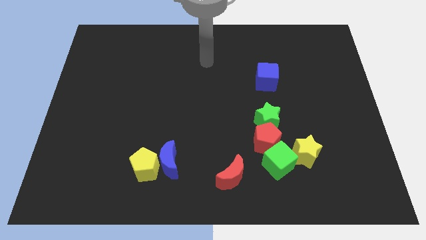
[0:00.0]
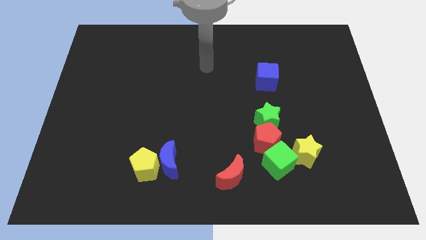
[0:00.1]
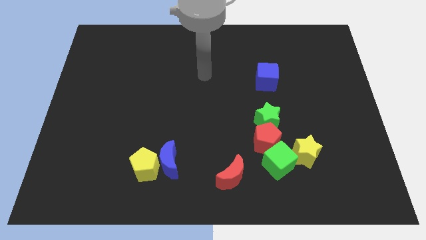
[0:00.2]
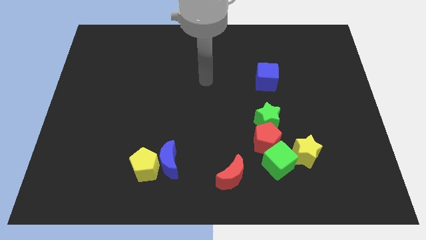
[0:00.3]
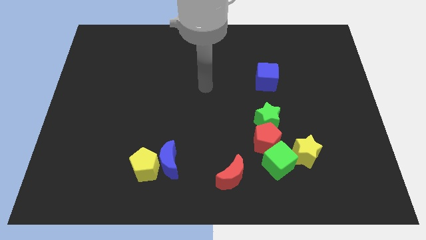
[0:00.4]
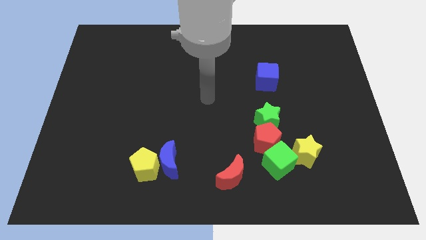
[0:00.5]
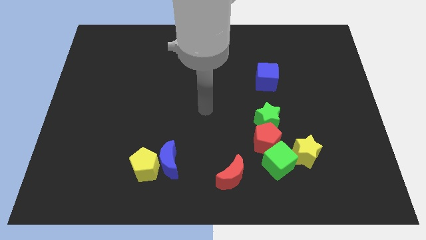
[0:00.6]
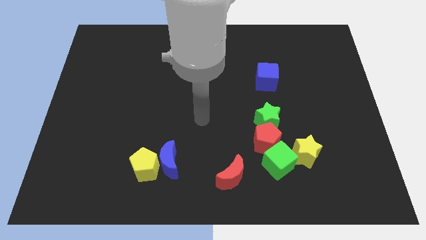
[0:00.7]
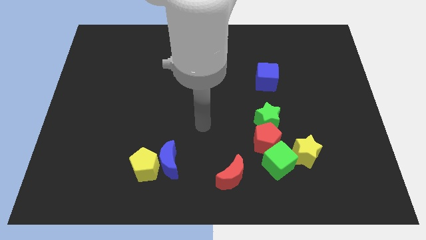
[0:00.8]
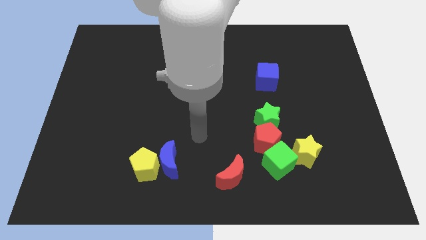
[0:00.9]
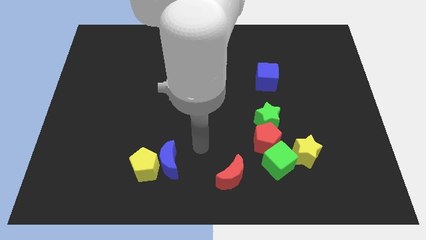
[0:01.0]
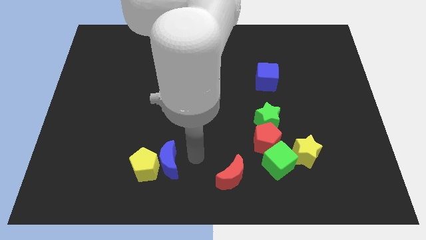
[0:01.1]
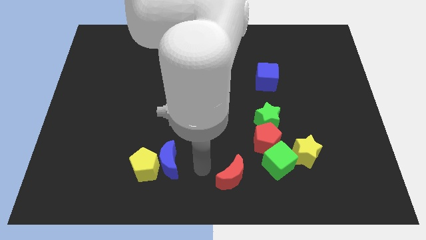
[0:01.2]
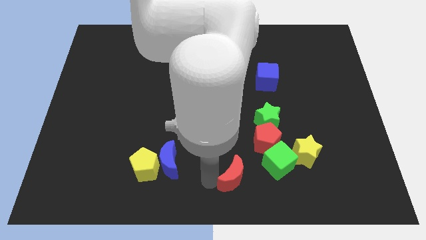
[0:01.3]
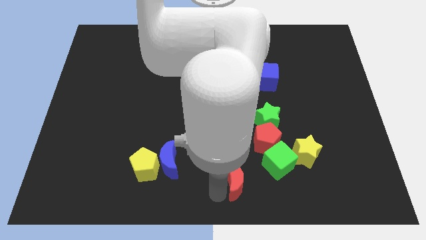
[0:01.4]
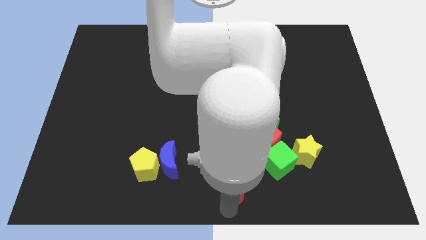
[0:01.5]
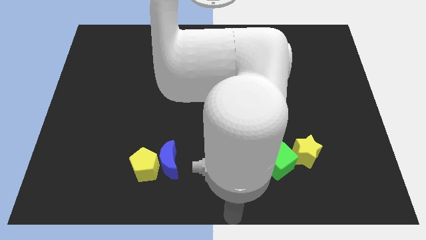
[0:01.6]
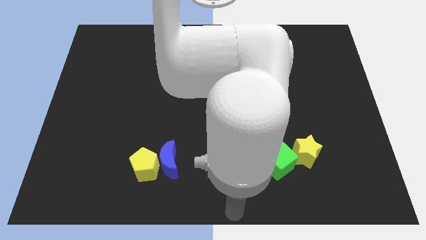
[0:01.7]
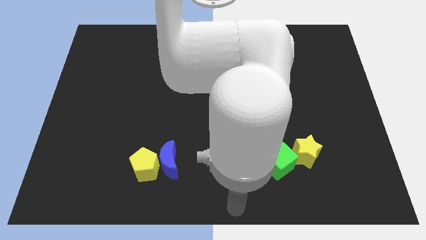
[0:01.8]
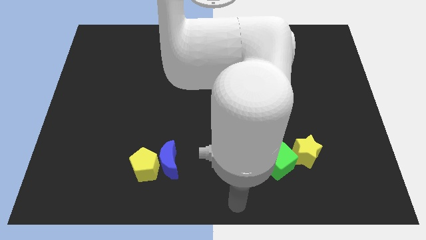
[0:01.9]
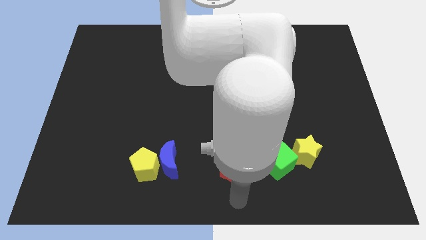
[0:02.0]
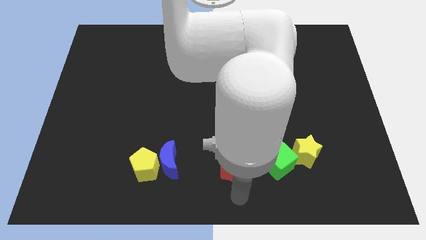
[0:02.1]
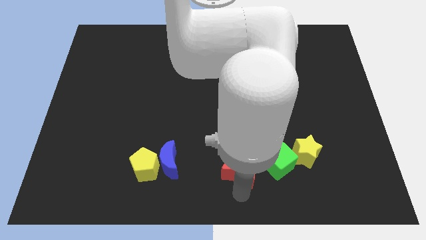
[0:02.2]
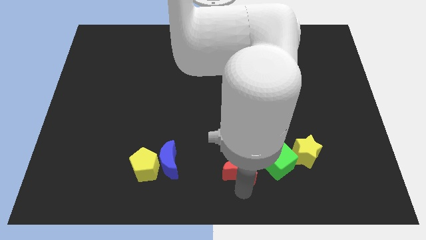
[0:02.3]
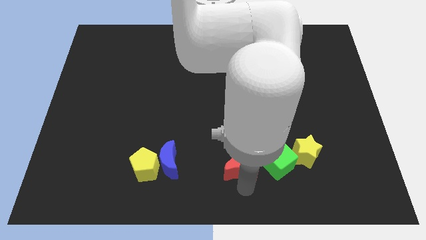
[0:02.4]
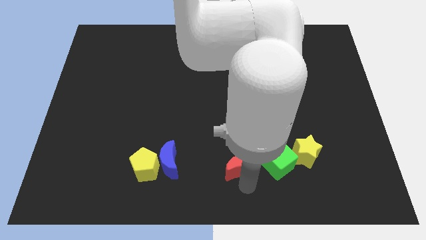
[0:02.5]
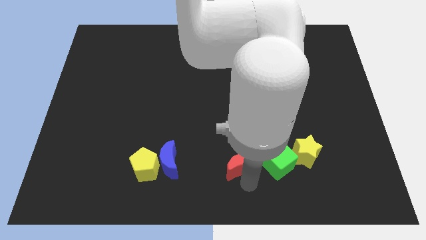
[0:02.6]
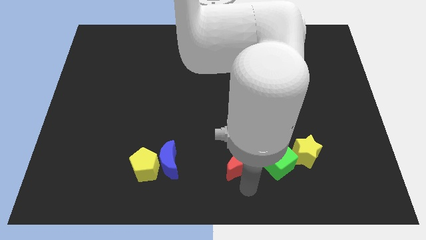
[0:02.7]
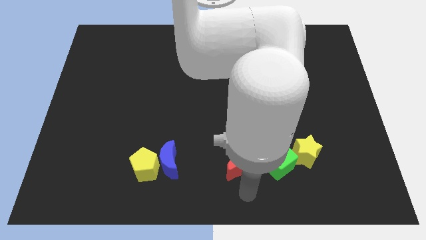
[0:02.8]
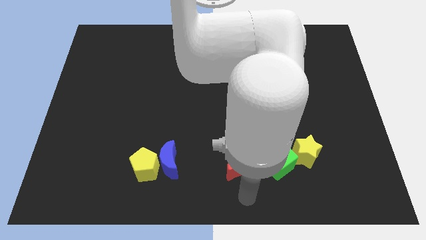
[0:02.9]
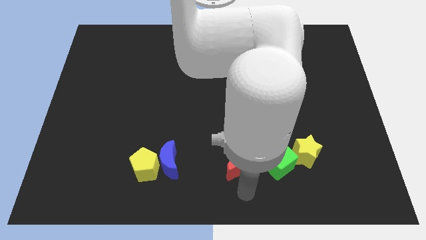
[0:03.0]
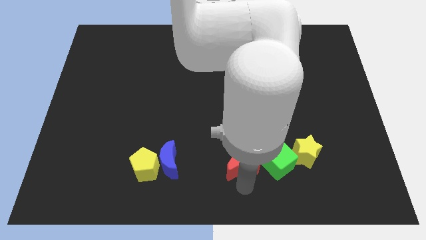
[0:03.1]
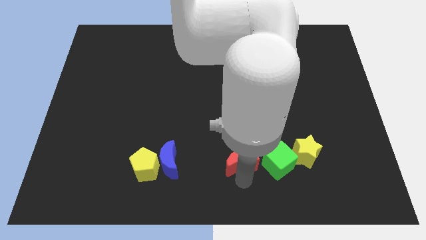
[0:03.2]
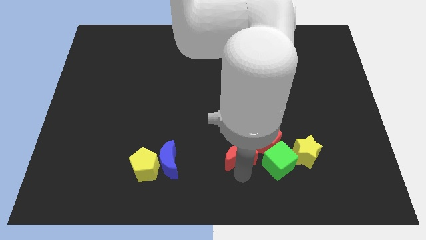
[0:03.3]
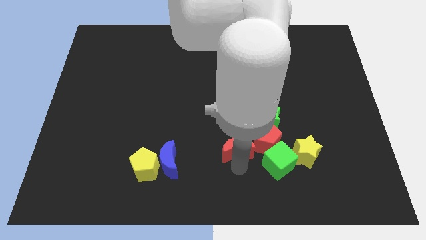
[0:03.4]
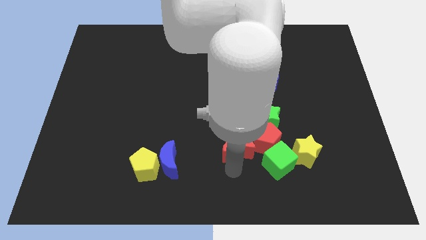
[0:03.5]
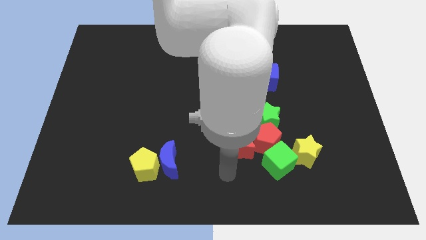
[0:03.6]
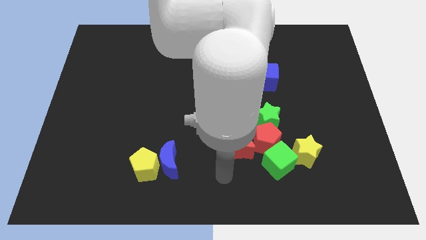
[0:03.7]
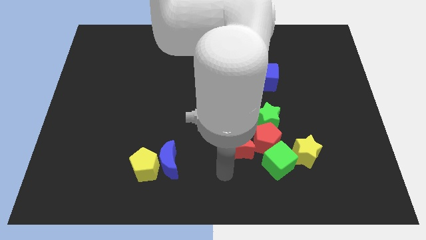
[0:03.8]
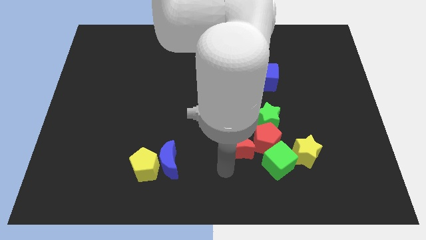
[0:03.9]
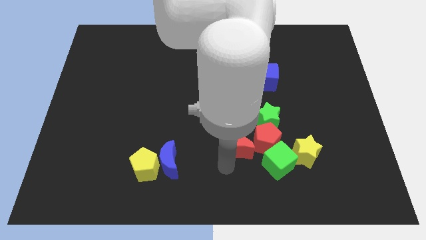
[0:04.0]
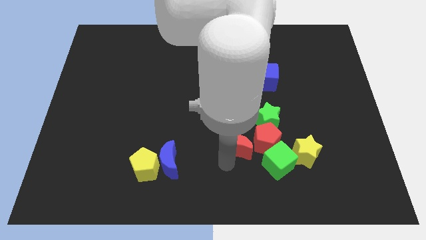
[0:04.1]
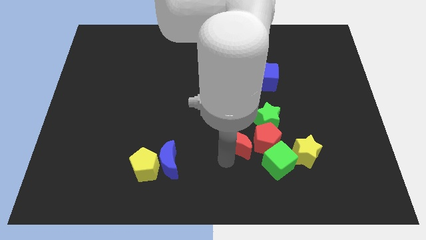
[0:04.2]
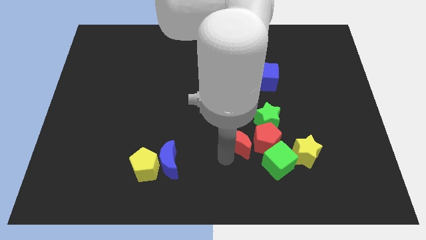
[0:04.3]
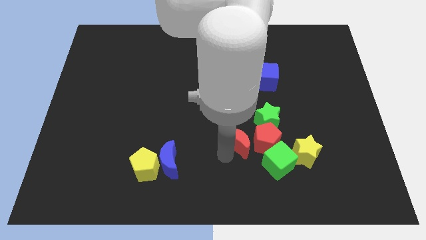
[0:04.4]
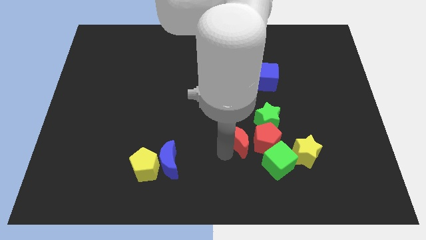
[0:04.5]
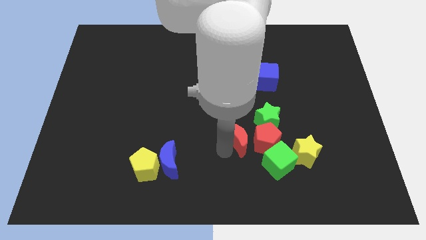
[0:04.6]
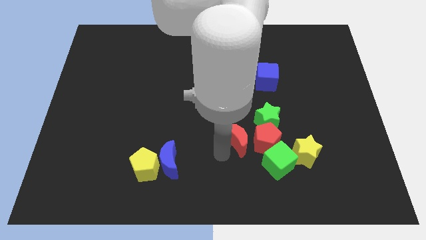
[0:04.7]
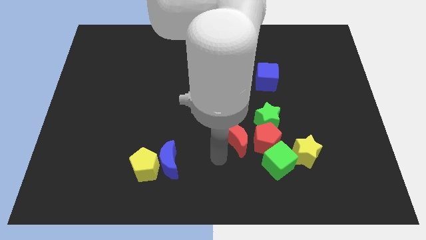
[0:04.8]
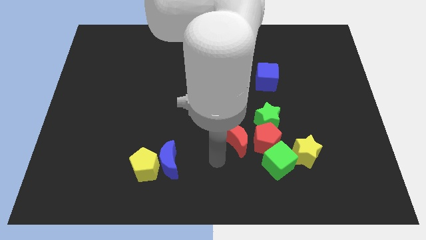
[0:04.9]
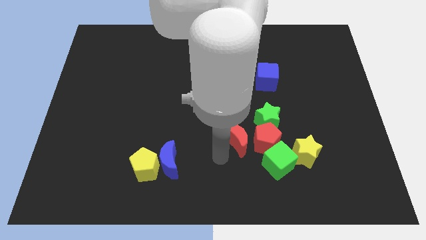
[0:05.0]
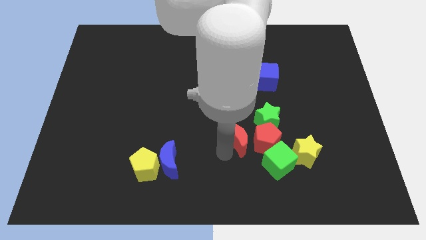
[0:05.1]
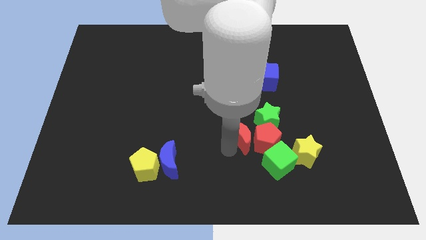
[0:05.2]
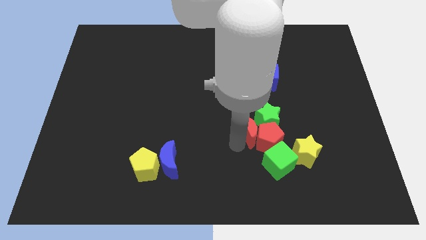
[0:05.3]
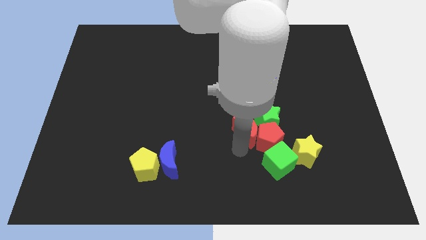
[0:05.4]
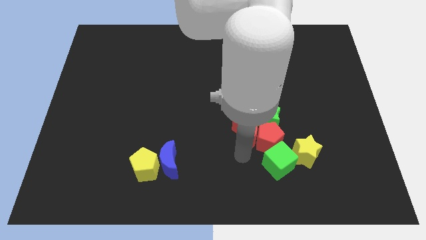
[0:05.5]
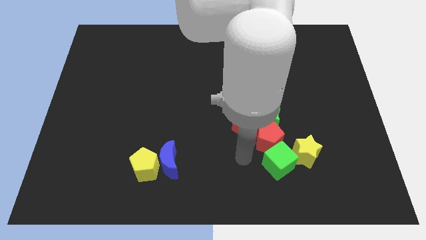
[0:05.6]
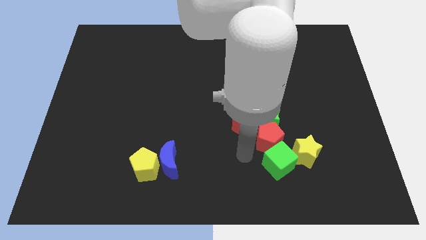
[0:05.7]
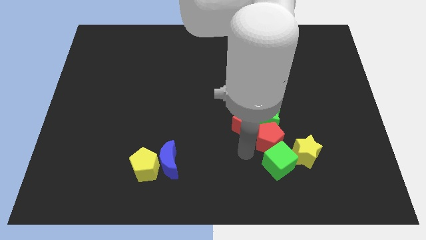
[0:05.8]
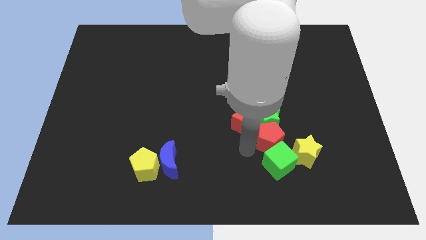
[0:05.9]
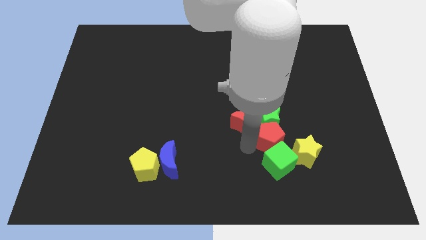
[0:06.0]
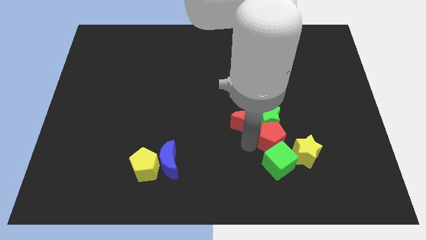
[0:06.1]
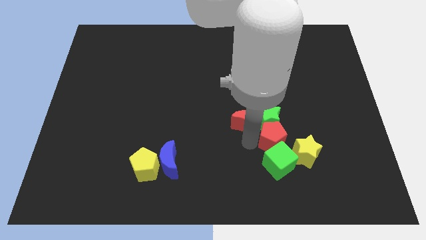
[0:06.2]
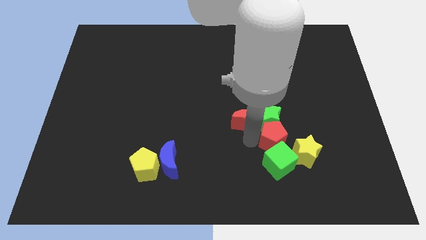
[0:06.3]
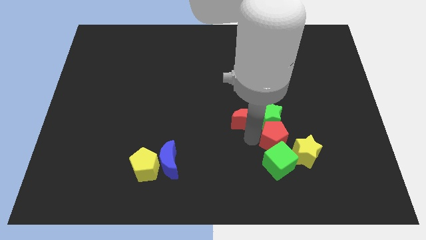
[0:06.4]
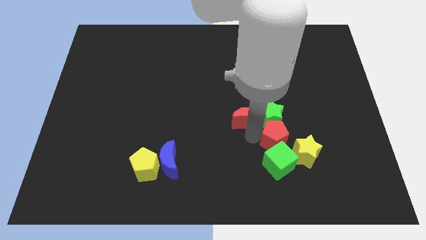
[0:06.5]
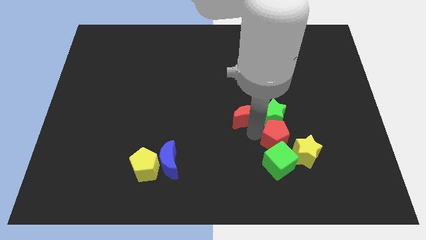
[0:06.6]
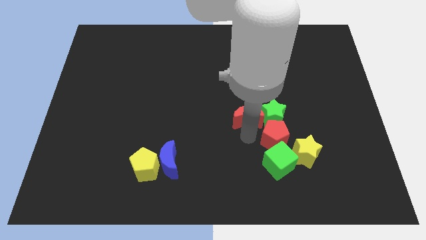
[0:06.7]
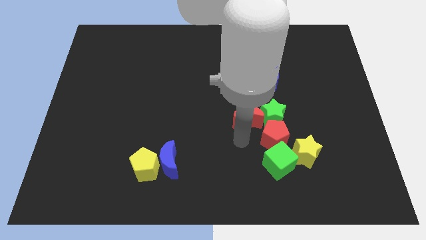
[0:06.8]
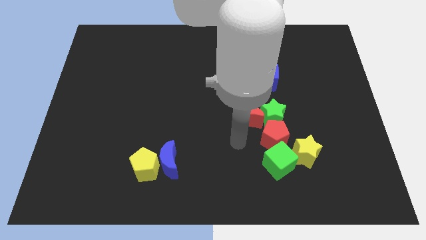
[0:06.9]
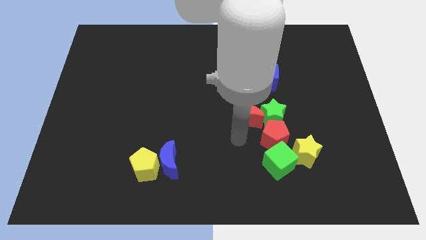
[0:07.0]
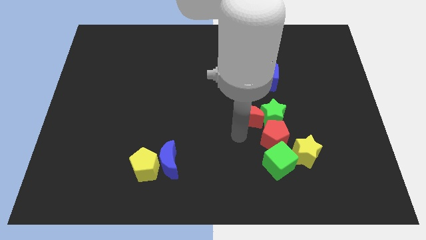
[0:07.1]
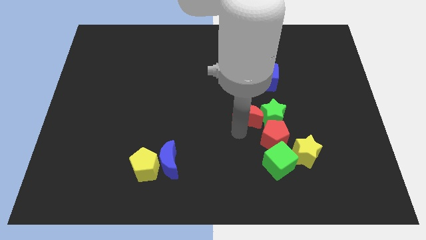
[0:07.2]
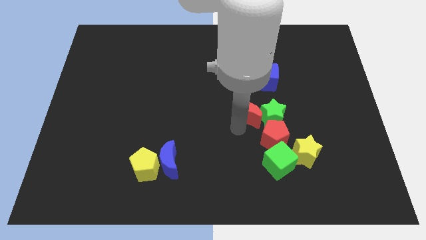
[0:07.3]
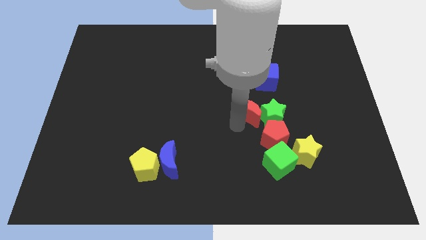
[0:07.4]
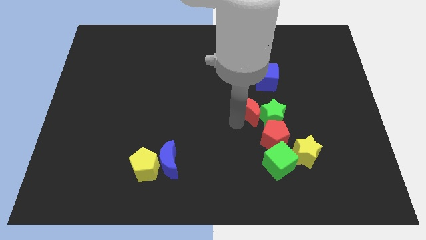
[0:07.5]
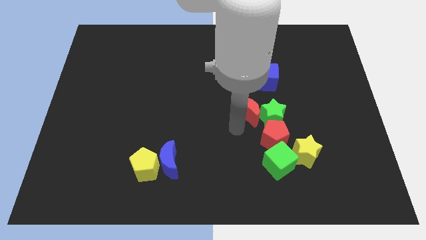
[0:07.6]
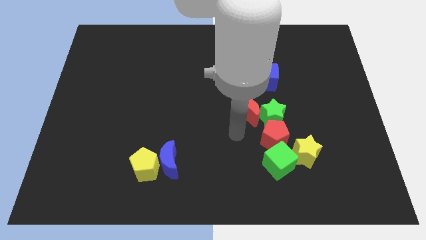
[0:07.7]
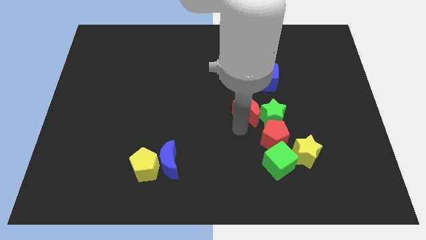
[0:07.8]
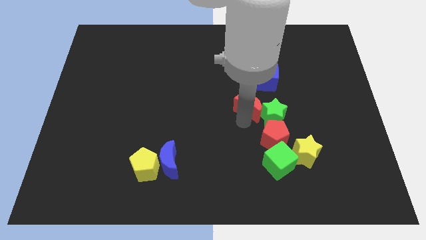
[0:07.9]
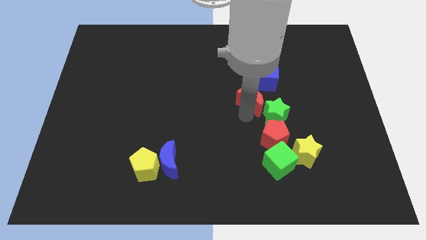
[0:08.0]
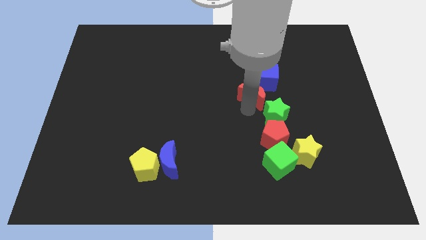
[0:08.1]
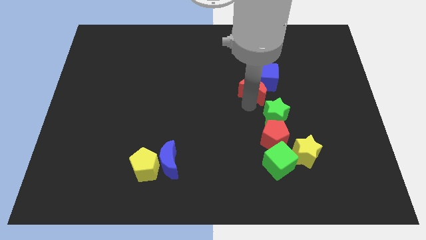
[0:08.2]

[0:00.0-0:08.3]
put the red moon next to the blue cube
